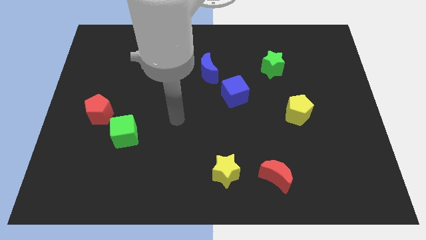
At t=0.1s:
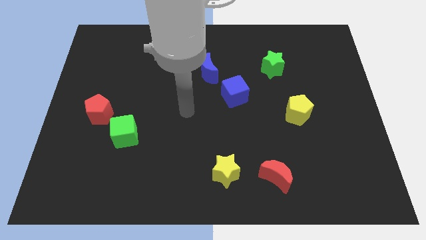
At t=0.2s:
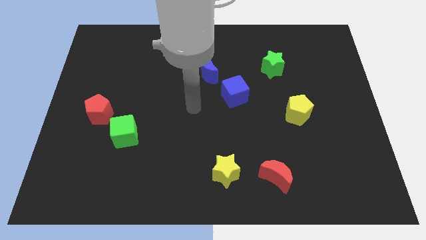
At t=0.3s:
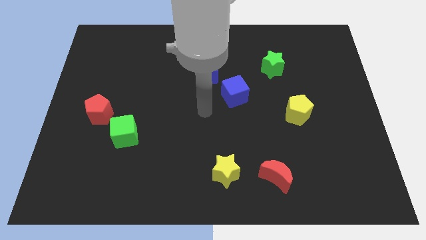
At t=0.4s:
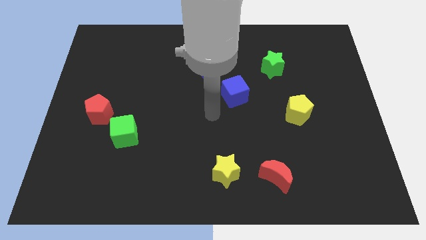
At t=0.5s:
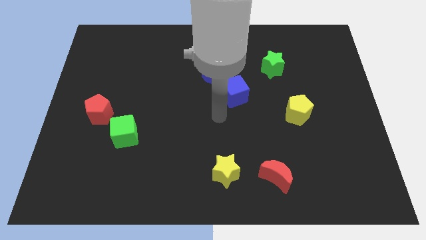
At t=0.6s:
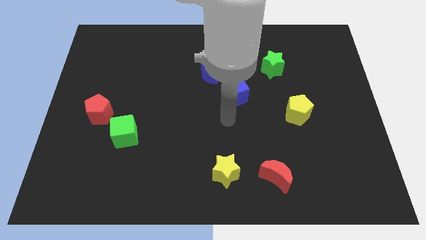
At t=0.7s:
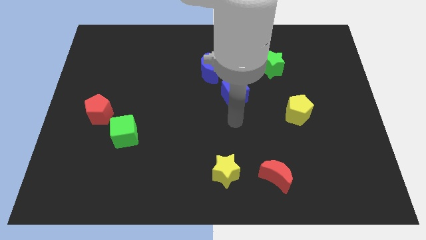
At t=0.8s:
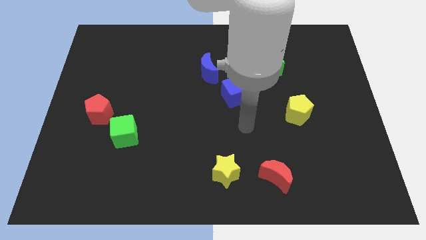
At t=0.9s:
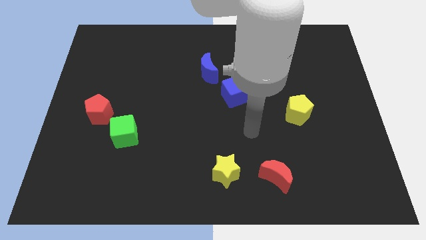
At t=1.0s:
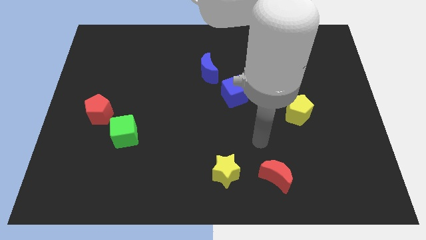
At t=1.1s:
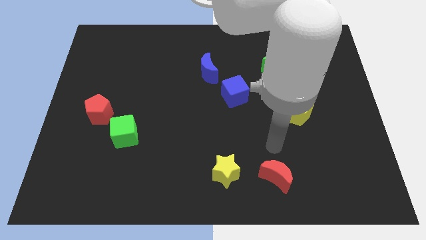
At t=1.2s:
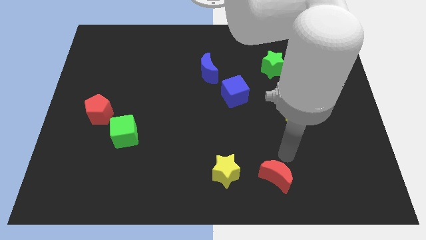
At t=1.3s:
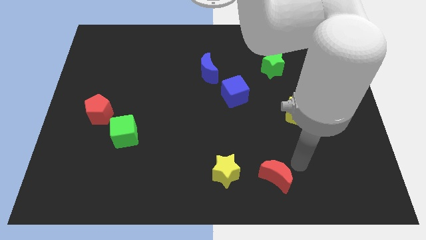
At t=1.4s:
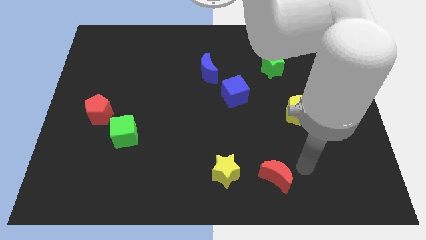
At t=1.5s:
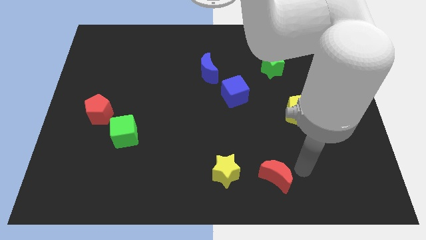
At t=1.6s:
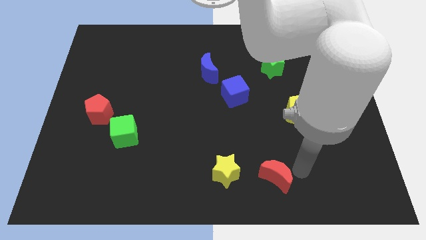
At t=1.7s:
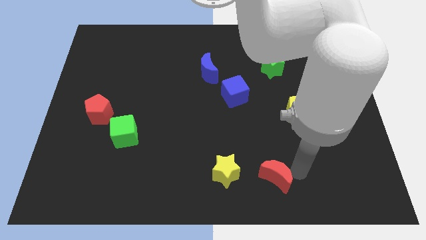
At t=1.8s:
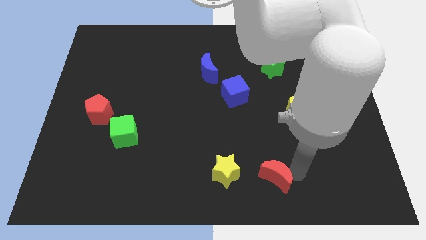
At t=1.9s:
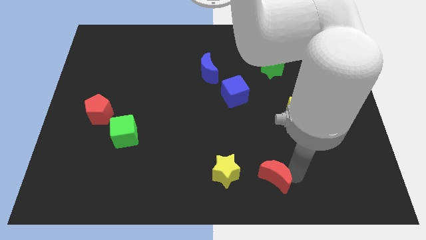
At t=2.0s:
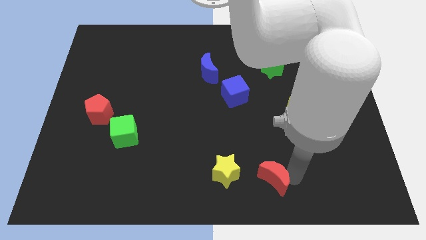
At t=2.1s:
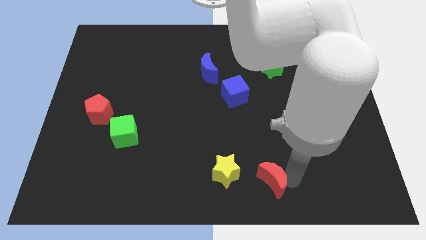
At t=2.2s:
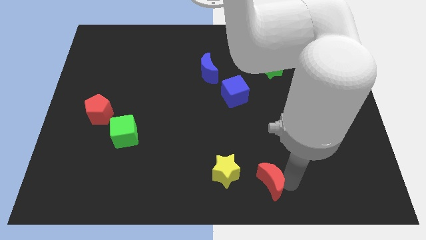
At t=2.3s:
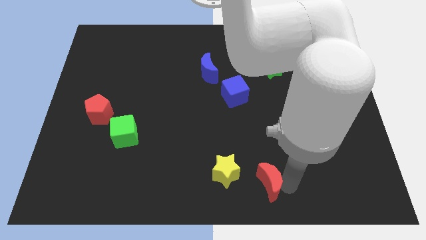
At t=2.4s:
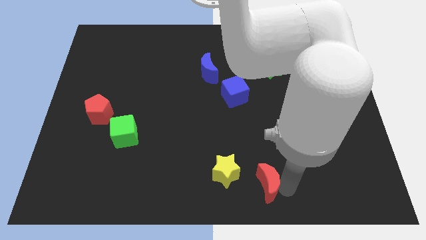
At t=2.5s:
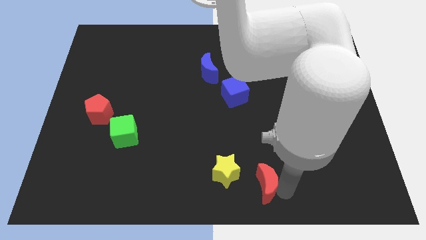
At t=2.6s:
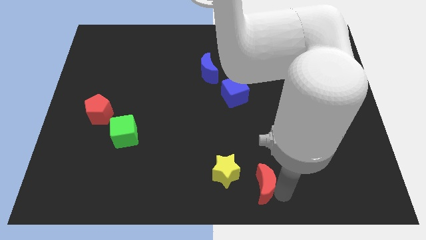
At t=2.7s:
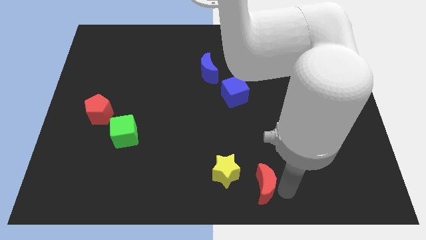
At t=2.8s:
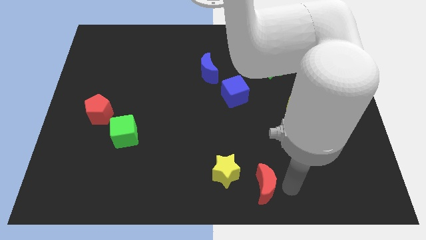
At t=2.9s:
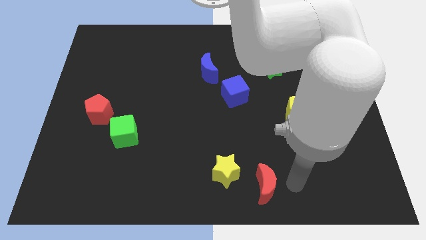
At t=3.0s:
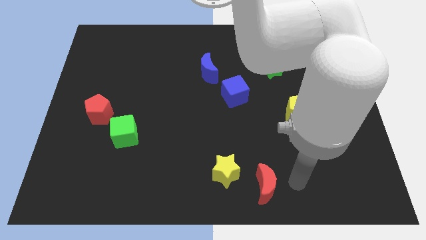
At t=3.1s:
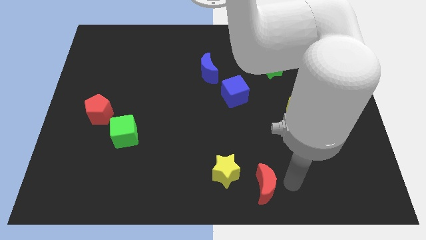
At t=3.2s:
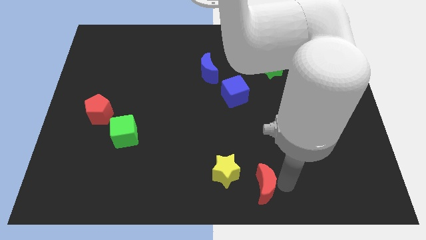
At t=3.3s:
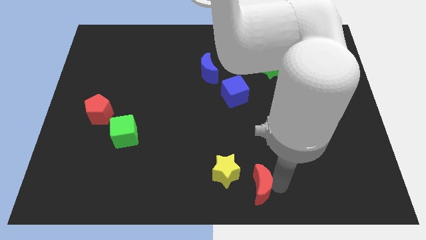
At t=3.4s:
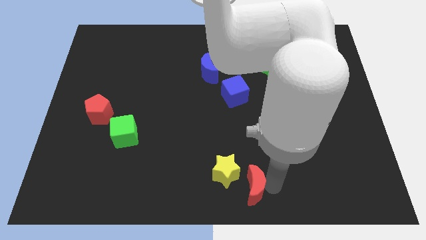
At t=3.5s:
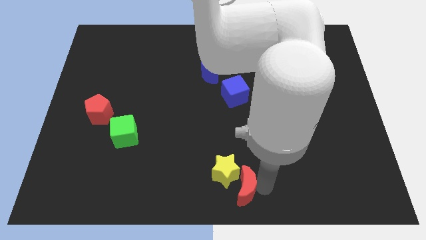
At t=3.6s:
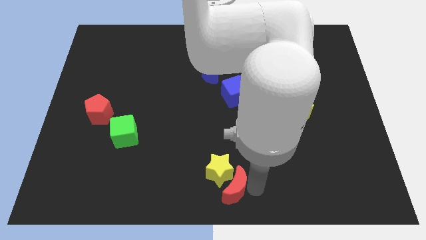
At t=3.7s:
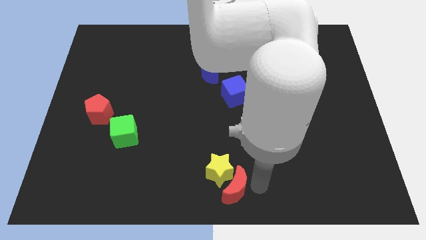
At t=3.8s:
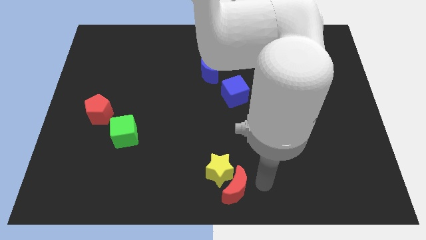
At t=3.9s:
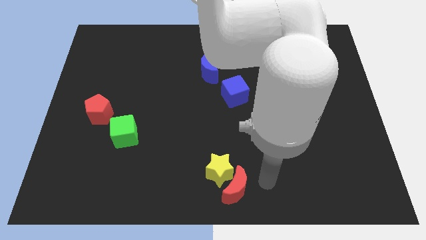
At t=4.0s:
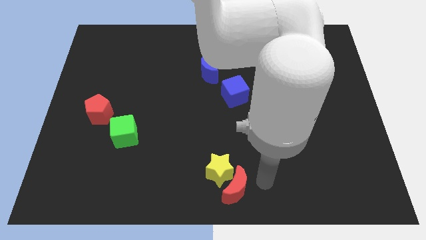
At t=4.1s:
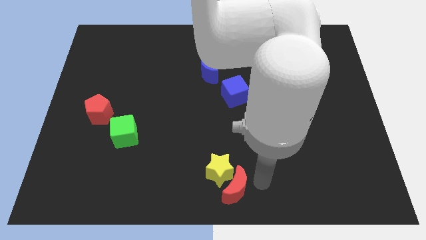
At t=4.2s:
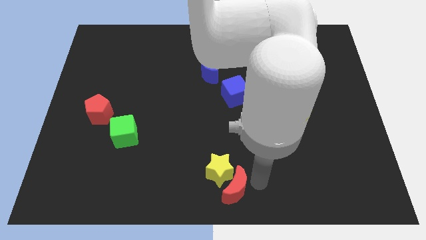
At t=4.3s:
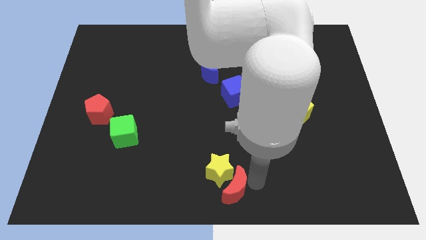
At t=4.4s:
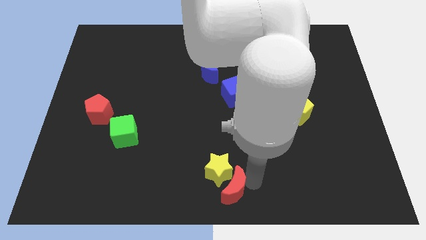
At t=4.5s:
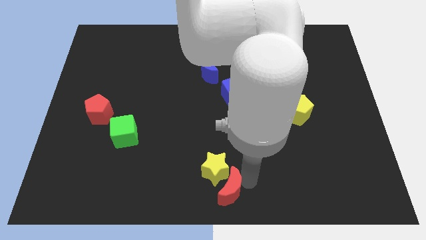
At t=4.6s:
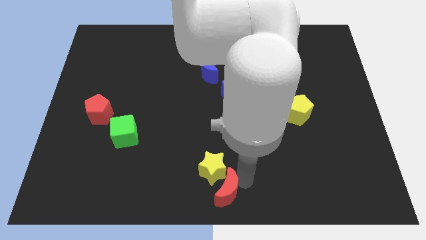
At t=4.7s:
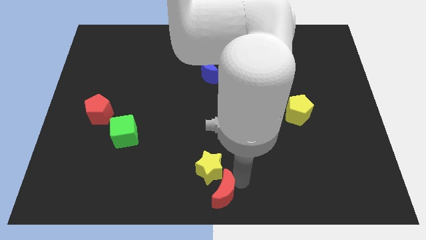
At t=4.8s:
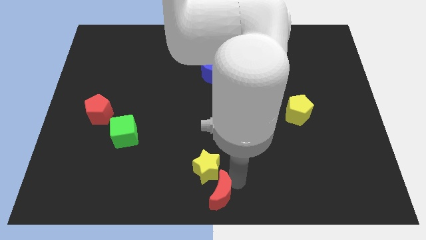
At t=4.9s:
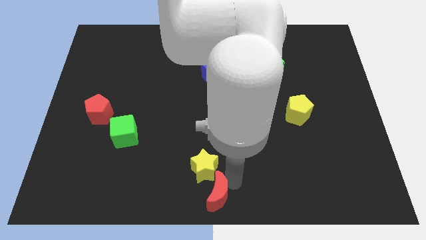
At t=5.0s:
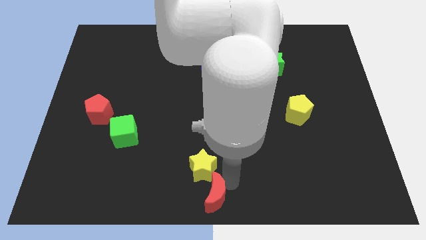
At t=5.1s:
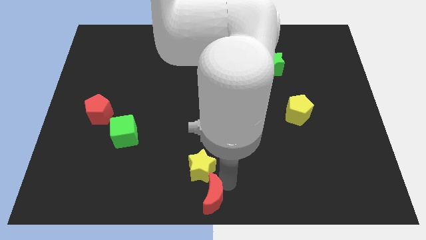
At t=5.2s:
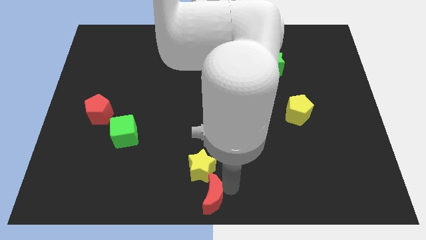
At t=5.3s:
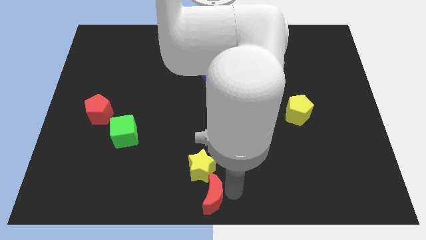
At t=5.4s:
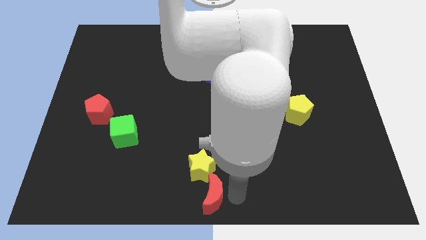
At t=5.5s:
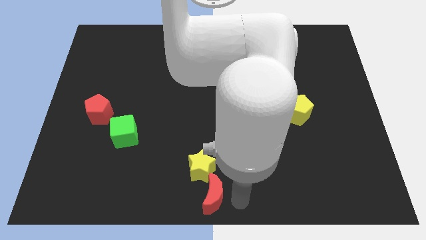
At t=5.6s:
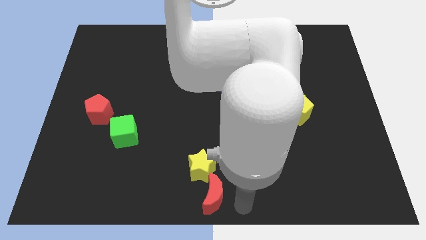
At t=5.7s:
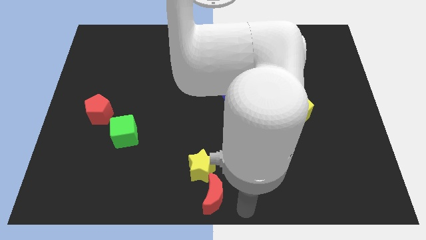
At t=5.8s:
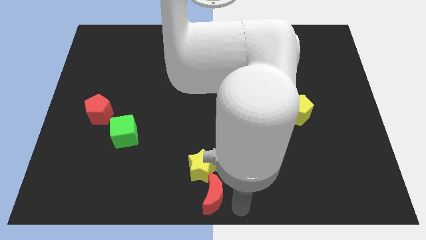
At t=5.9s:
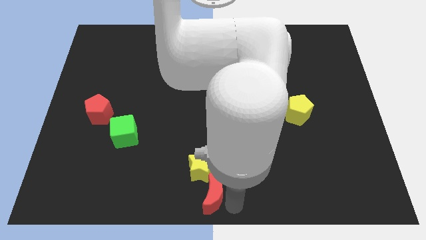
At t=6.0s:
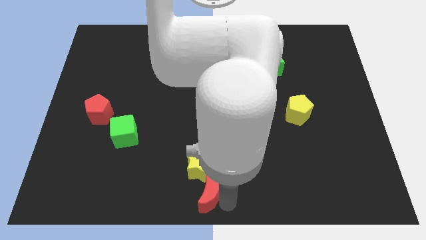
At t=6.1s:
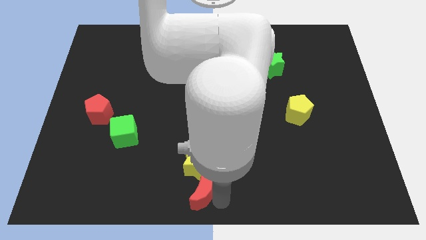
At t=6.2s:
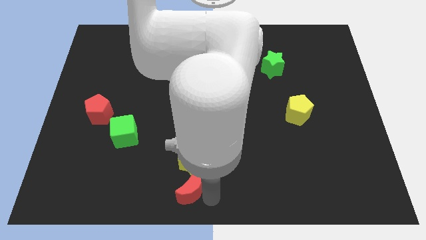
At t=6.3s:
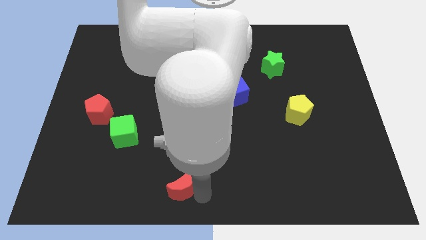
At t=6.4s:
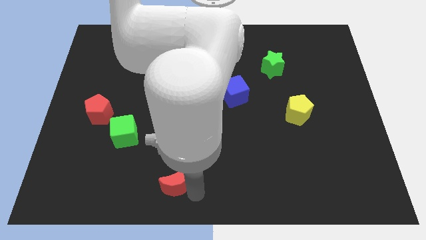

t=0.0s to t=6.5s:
push the red moon to the left

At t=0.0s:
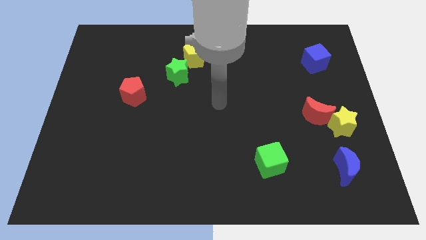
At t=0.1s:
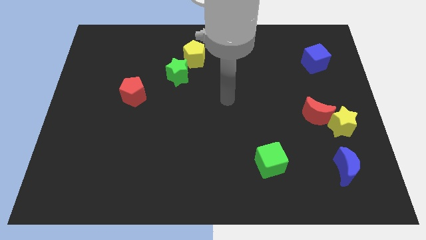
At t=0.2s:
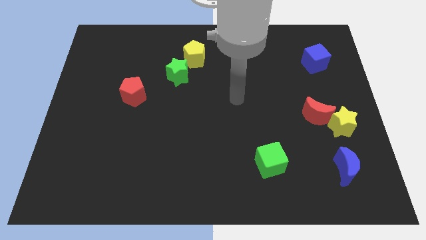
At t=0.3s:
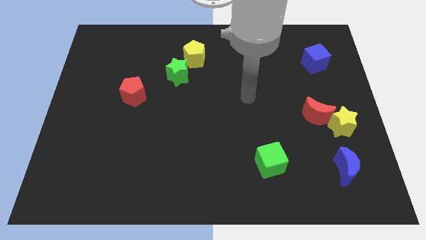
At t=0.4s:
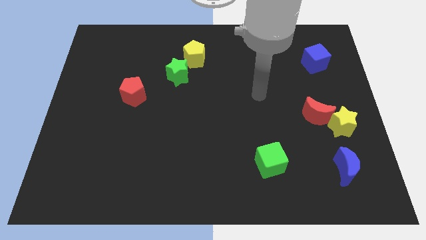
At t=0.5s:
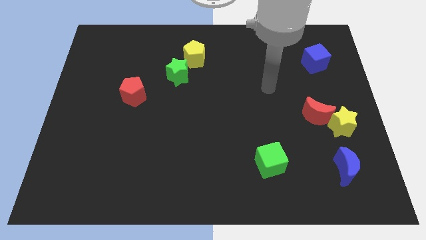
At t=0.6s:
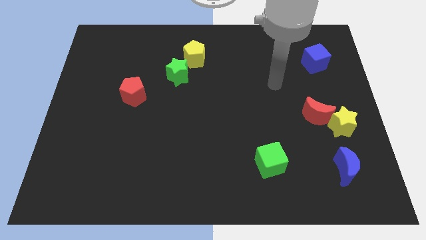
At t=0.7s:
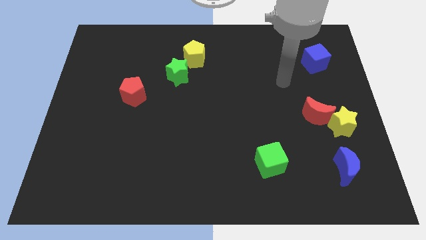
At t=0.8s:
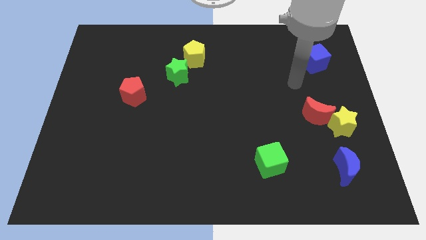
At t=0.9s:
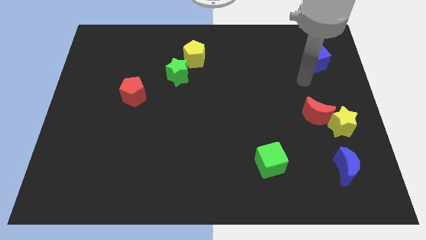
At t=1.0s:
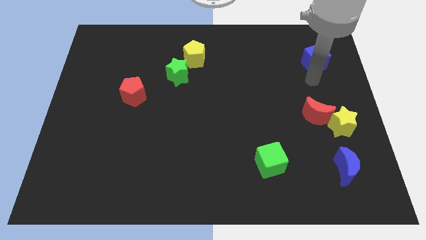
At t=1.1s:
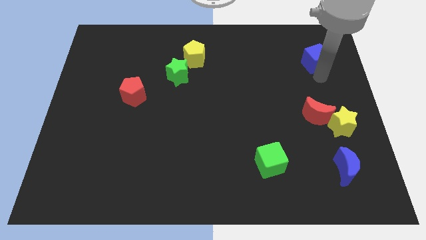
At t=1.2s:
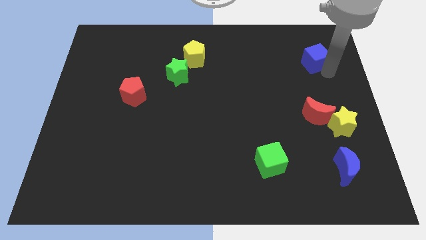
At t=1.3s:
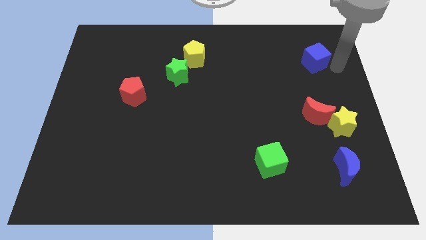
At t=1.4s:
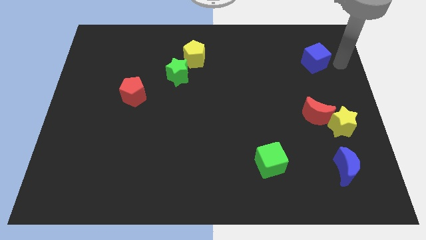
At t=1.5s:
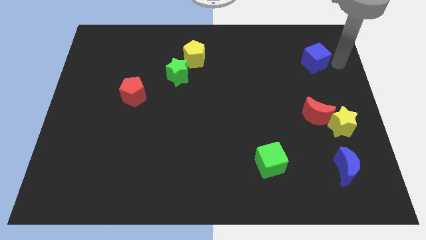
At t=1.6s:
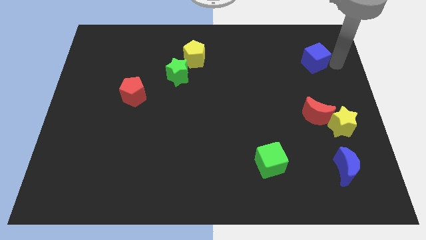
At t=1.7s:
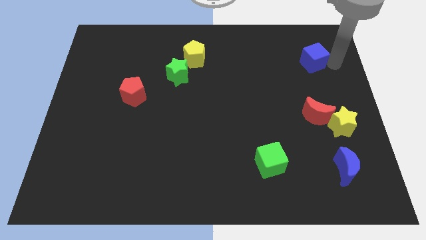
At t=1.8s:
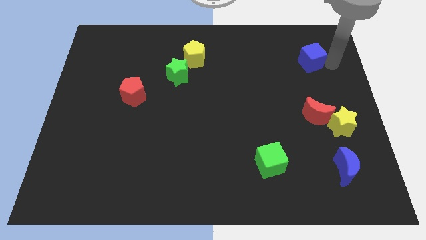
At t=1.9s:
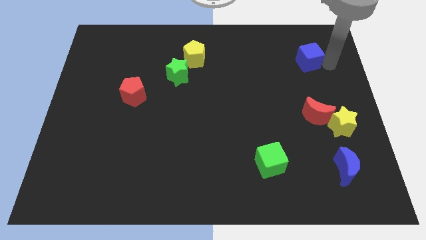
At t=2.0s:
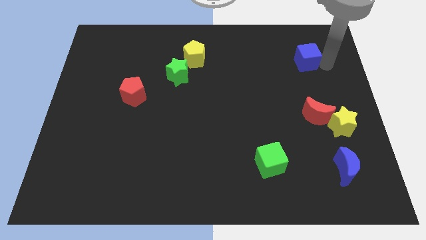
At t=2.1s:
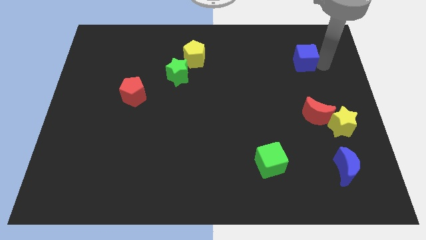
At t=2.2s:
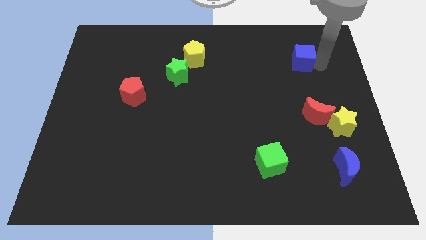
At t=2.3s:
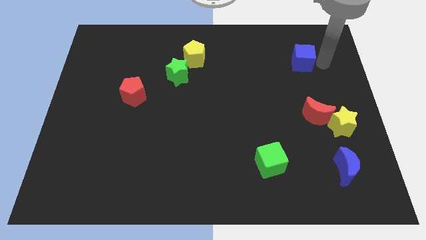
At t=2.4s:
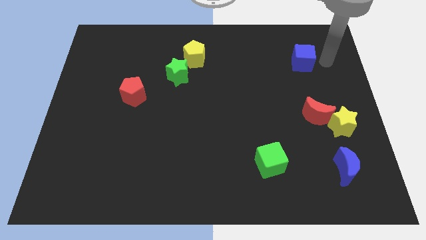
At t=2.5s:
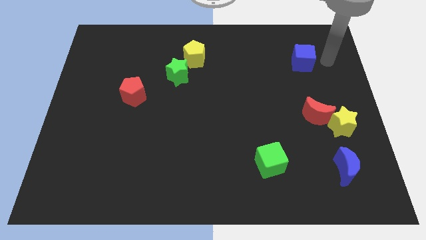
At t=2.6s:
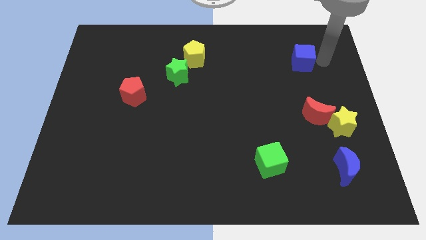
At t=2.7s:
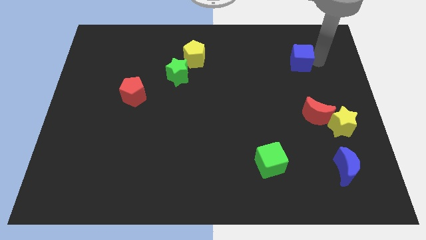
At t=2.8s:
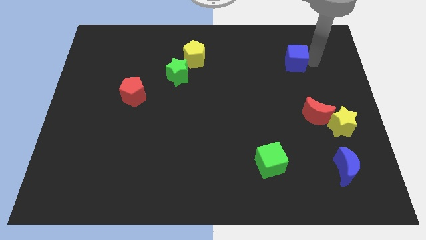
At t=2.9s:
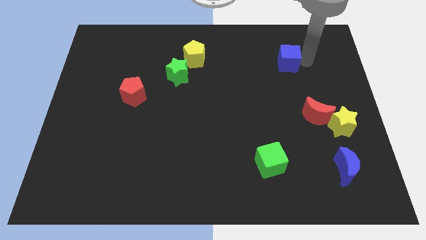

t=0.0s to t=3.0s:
slightly move the blue cube left
